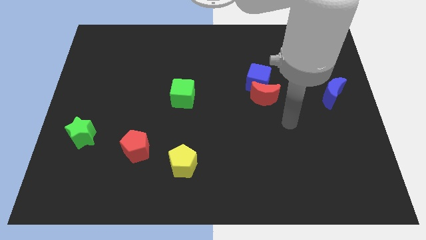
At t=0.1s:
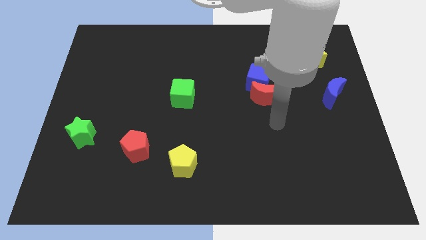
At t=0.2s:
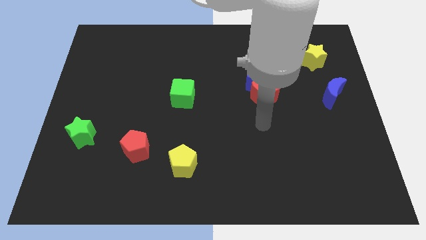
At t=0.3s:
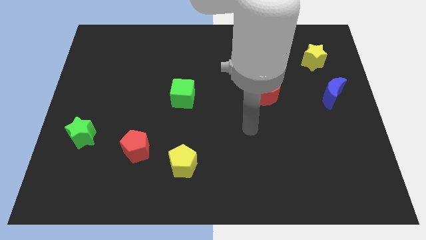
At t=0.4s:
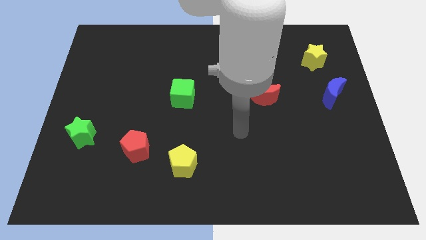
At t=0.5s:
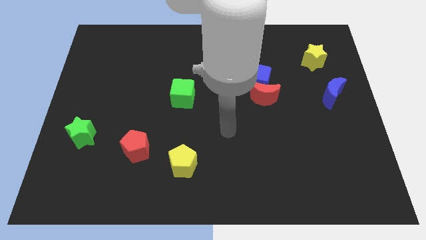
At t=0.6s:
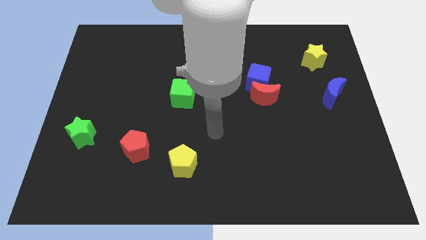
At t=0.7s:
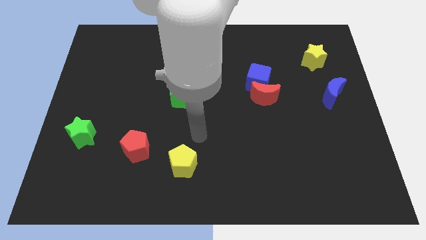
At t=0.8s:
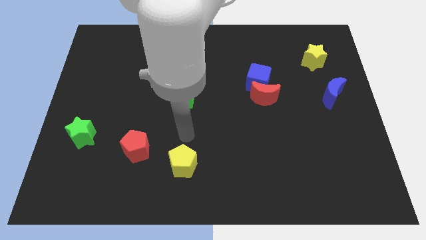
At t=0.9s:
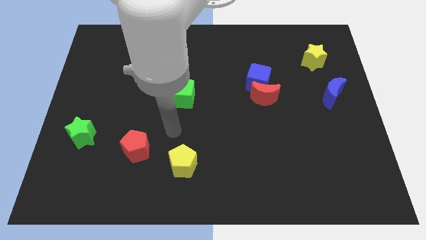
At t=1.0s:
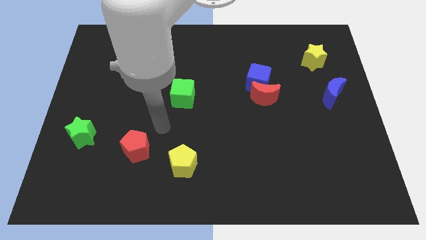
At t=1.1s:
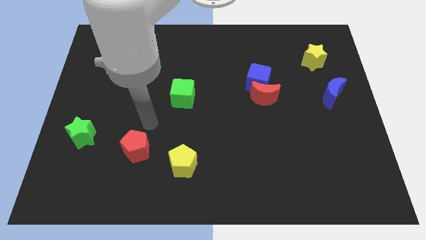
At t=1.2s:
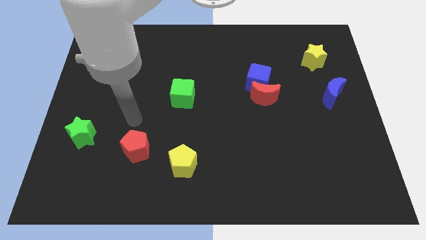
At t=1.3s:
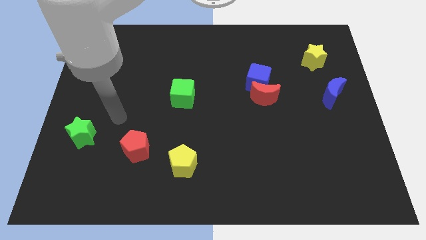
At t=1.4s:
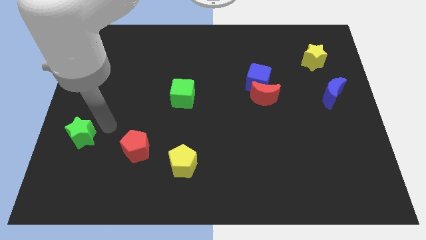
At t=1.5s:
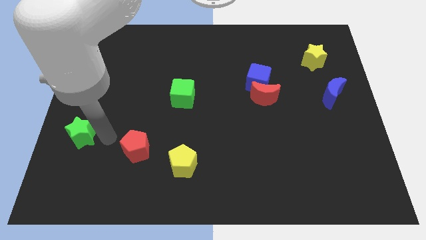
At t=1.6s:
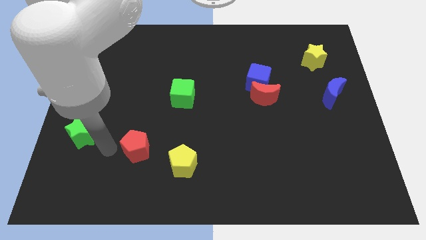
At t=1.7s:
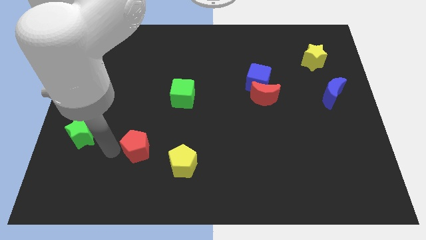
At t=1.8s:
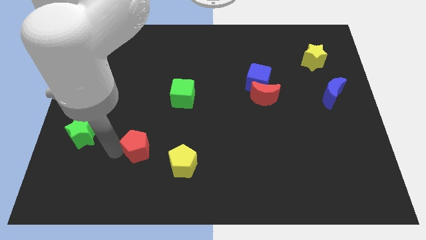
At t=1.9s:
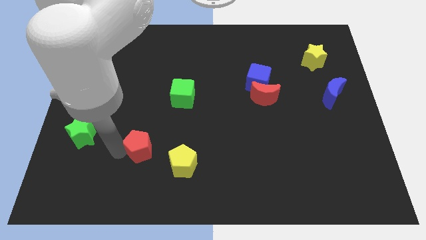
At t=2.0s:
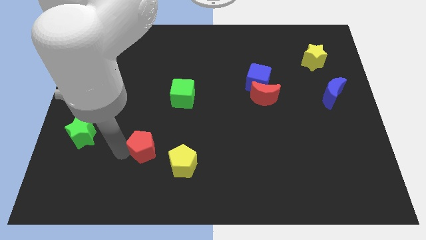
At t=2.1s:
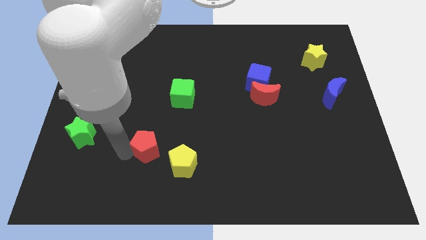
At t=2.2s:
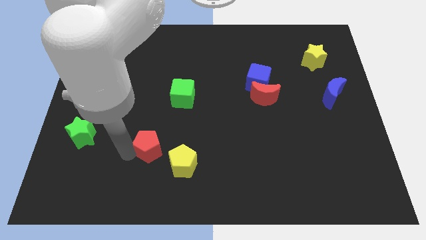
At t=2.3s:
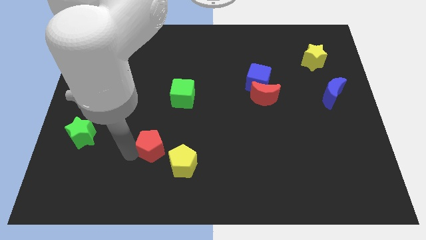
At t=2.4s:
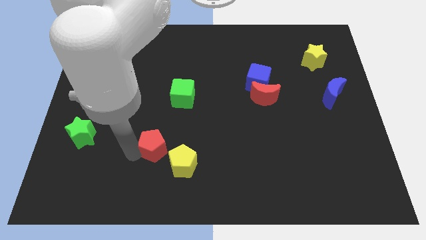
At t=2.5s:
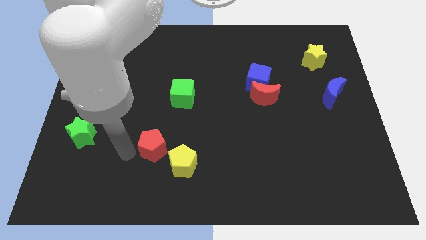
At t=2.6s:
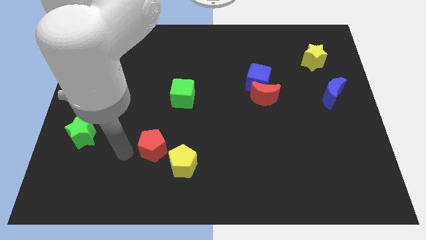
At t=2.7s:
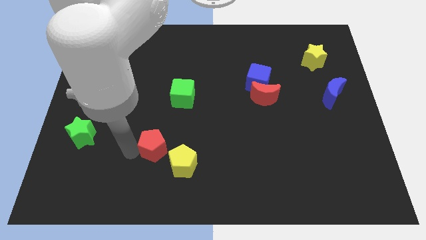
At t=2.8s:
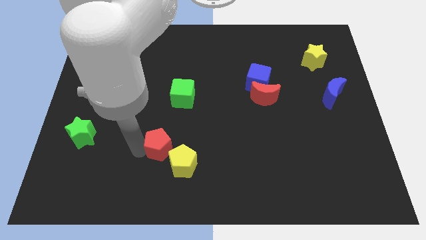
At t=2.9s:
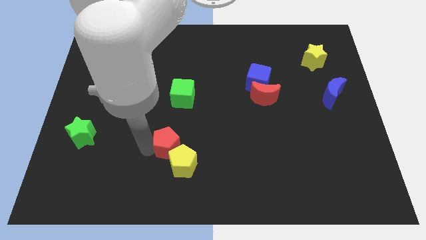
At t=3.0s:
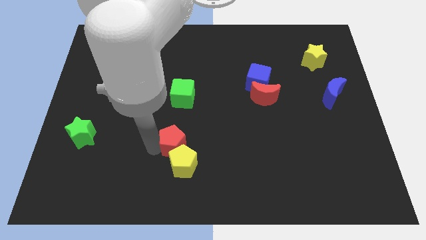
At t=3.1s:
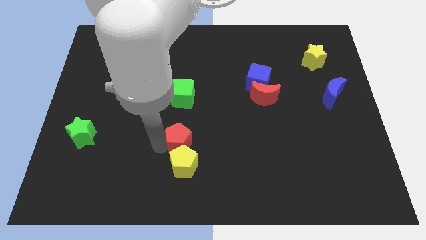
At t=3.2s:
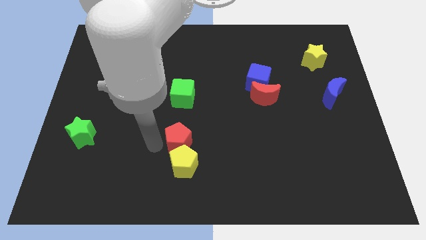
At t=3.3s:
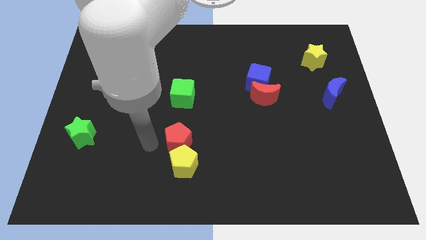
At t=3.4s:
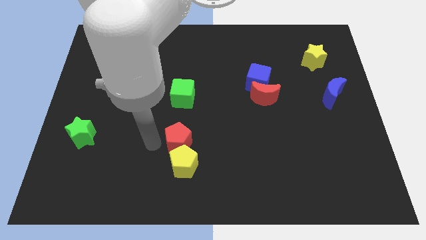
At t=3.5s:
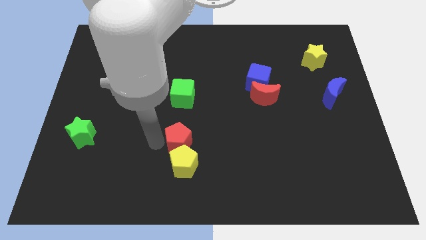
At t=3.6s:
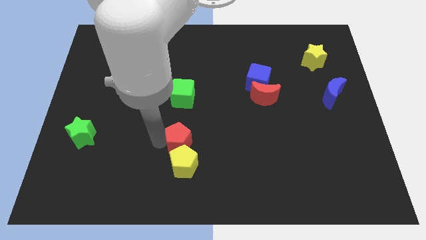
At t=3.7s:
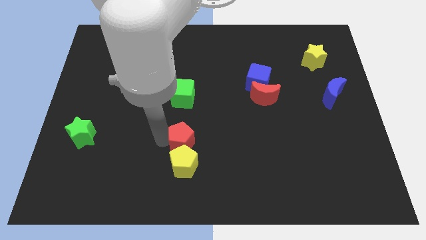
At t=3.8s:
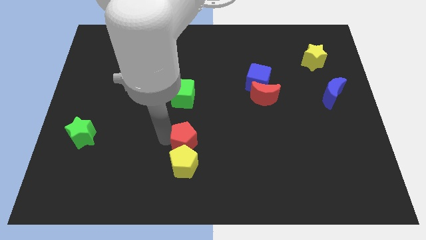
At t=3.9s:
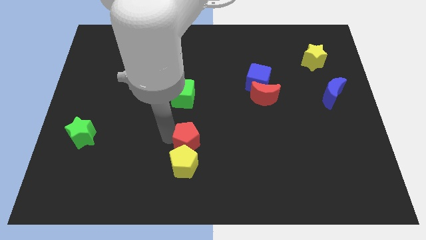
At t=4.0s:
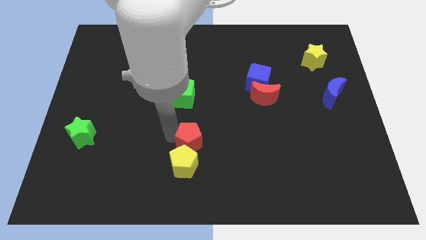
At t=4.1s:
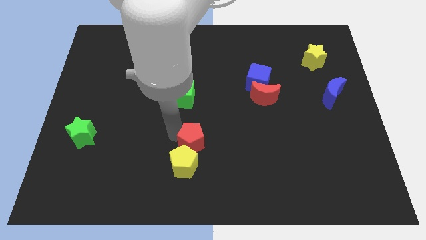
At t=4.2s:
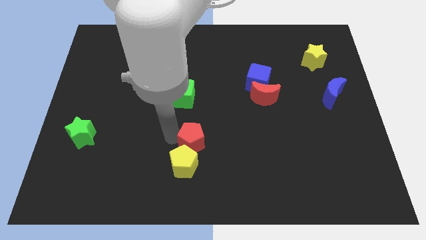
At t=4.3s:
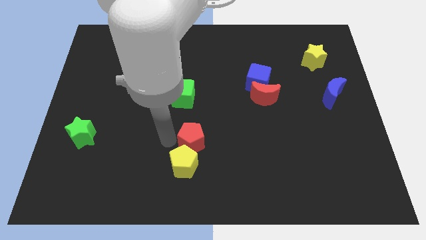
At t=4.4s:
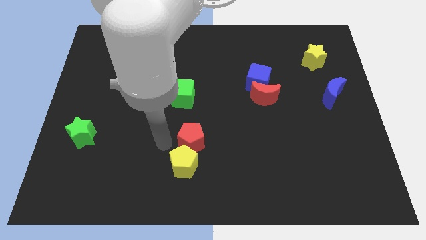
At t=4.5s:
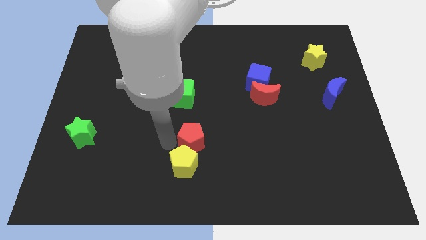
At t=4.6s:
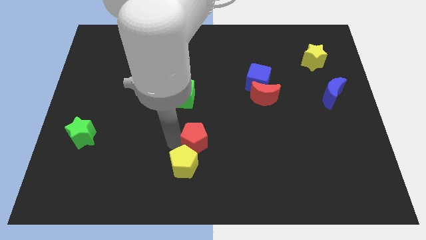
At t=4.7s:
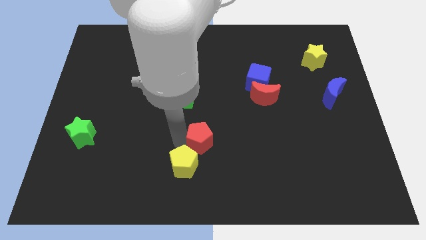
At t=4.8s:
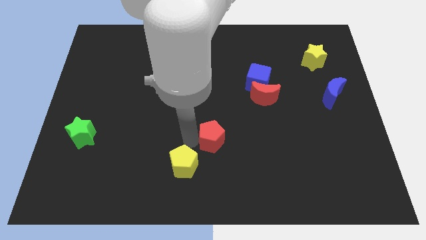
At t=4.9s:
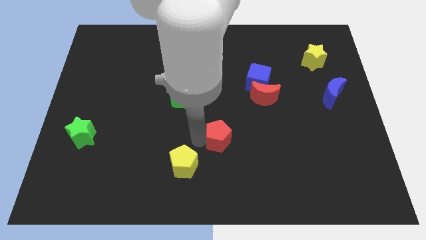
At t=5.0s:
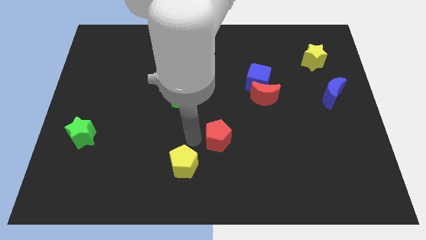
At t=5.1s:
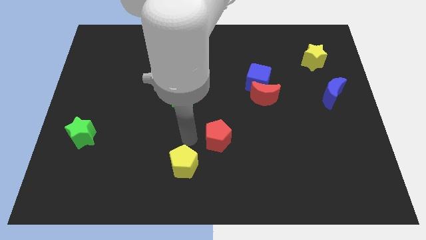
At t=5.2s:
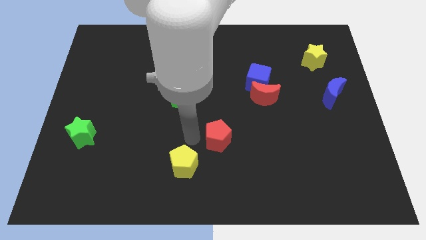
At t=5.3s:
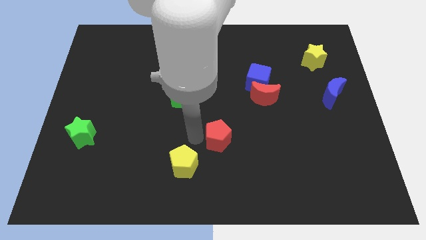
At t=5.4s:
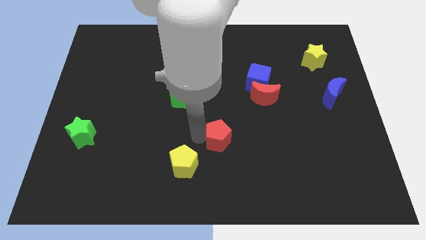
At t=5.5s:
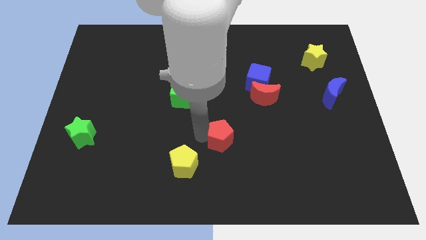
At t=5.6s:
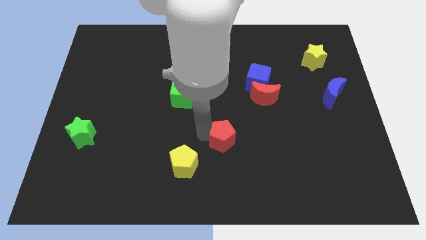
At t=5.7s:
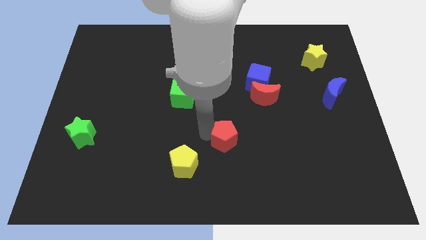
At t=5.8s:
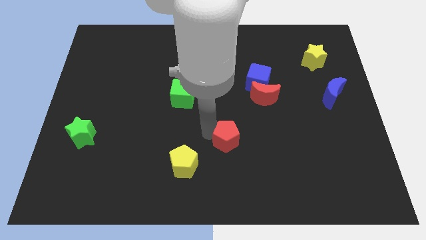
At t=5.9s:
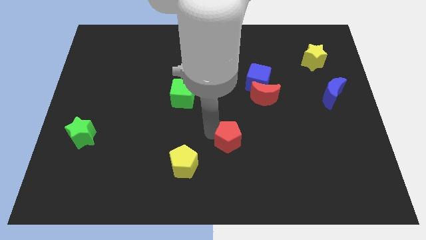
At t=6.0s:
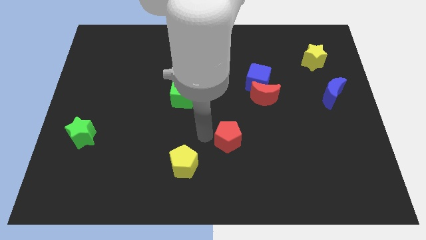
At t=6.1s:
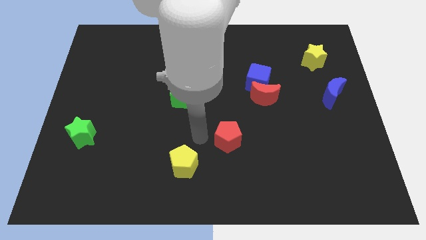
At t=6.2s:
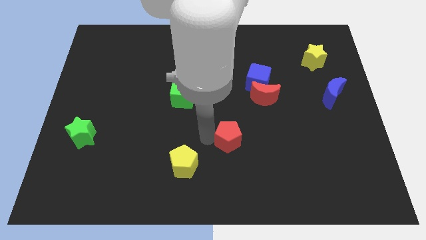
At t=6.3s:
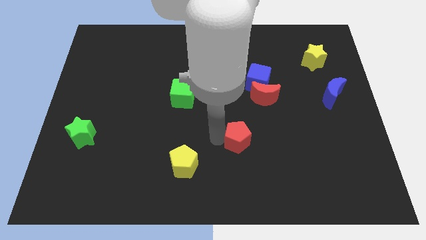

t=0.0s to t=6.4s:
move the red pentagon to the right

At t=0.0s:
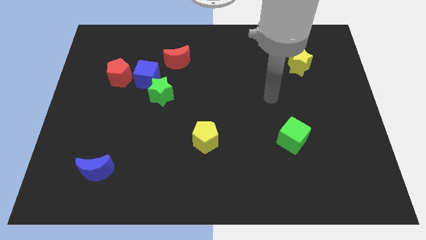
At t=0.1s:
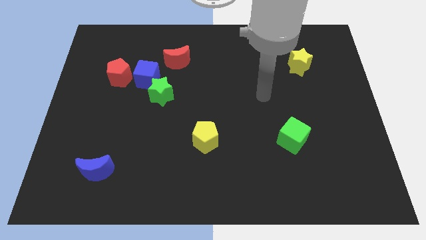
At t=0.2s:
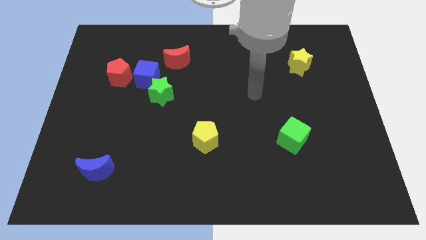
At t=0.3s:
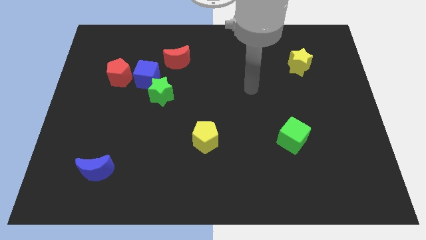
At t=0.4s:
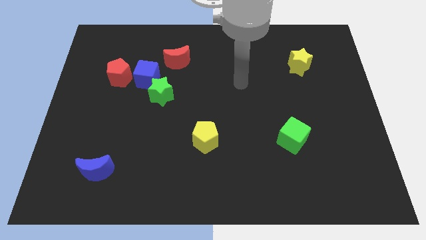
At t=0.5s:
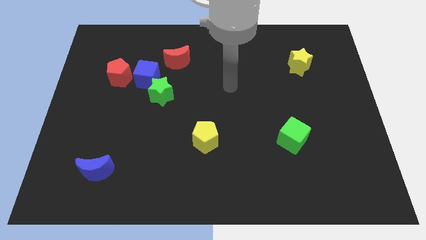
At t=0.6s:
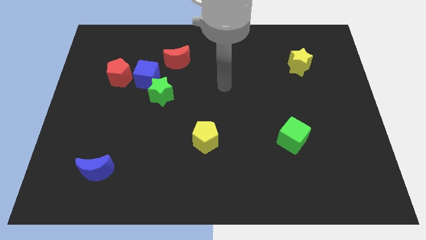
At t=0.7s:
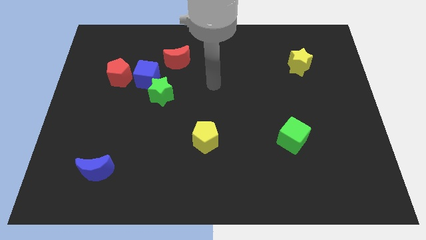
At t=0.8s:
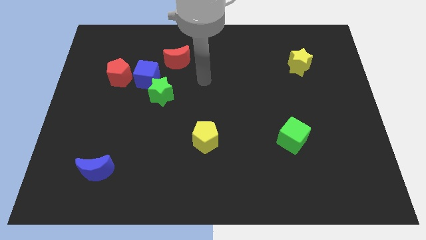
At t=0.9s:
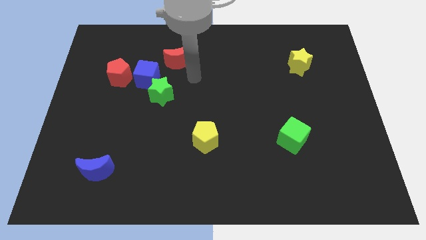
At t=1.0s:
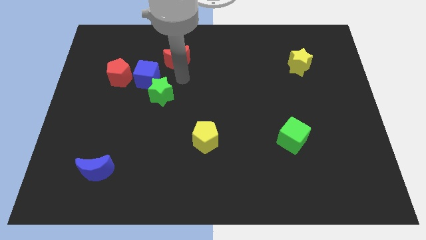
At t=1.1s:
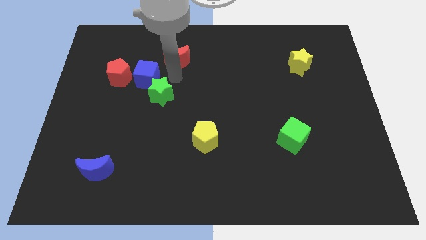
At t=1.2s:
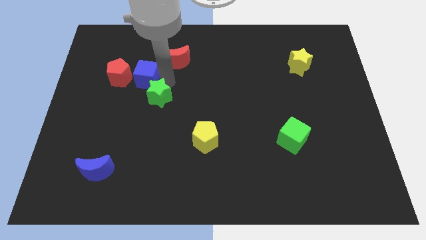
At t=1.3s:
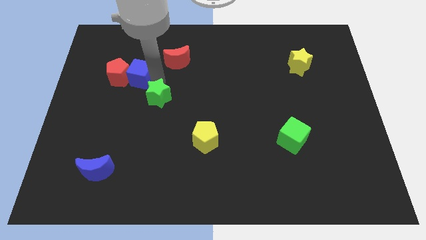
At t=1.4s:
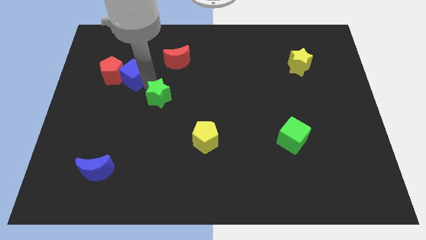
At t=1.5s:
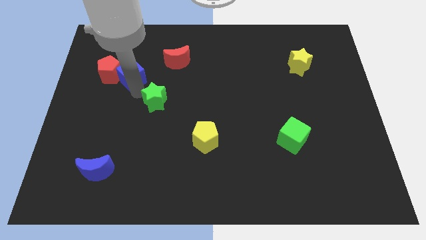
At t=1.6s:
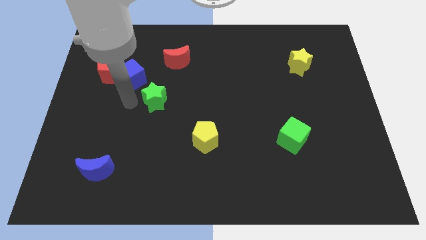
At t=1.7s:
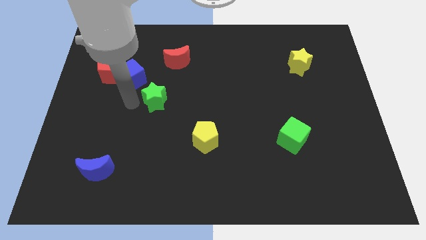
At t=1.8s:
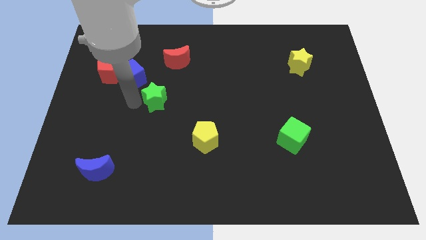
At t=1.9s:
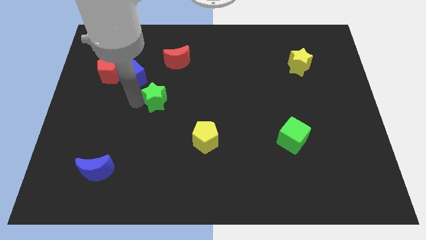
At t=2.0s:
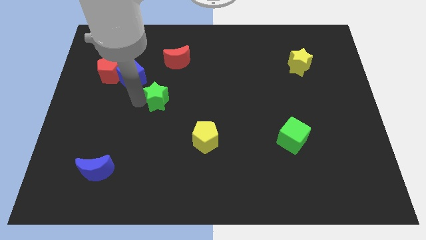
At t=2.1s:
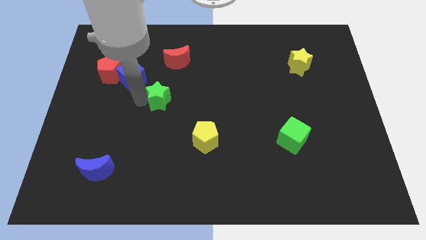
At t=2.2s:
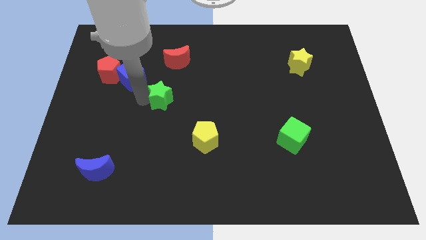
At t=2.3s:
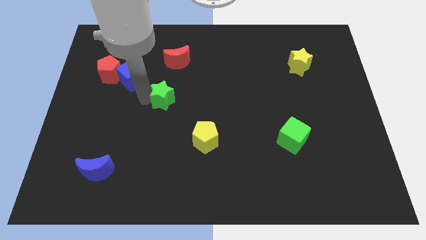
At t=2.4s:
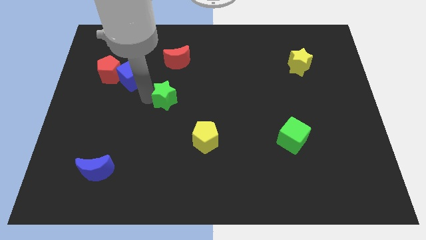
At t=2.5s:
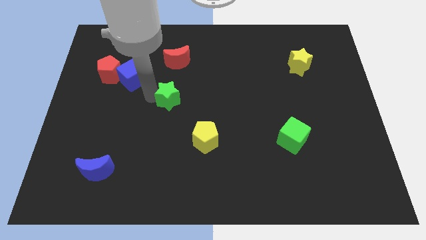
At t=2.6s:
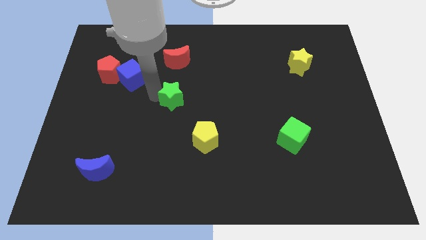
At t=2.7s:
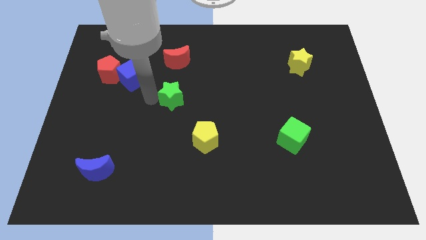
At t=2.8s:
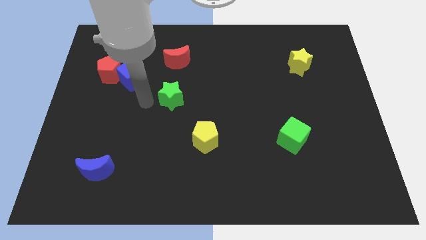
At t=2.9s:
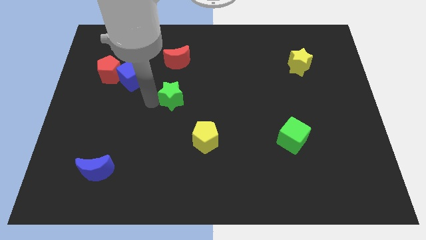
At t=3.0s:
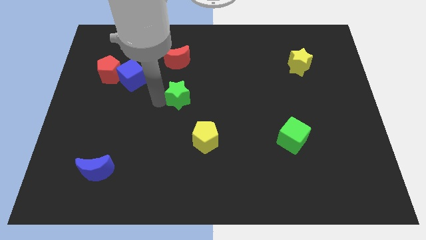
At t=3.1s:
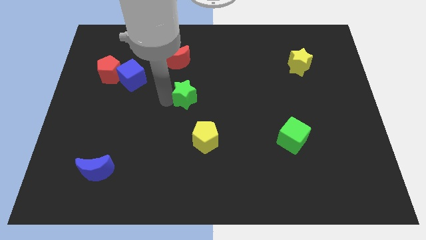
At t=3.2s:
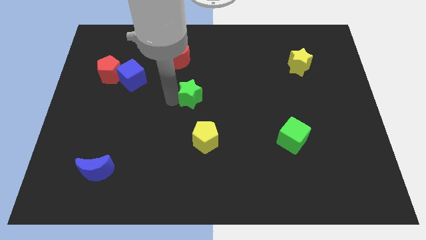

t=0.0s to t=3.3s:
slide the green star a little right
